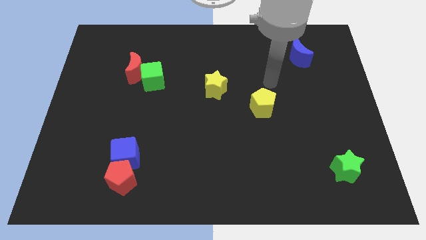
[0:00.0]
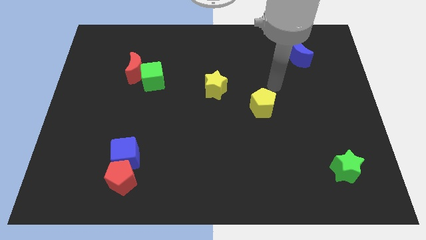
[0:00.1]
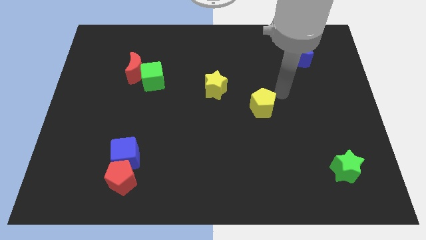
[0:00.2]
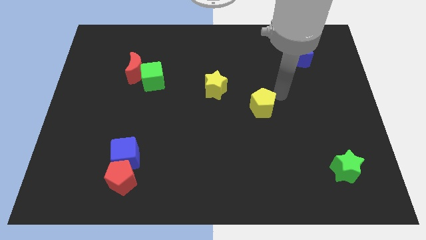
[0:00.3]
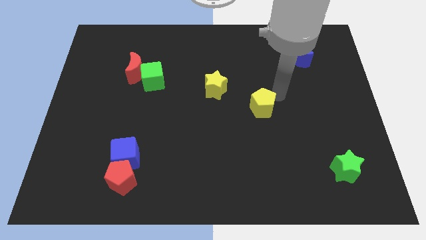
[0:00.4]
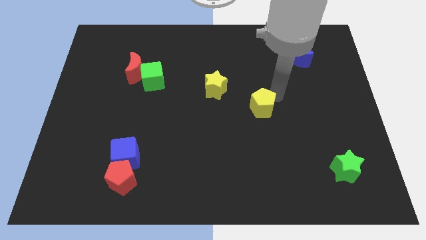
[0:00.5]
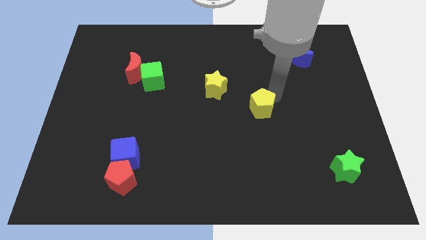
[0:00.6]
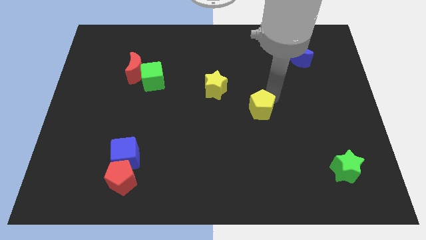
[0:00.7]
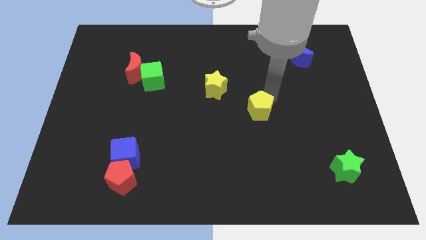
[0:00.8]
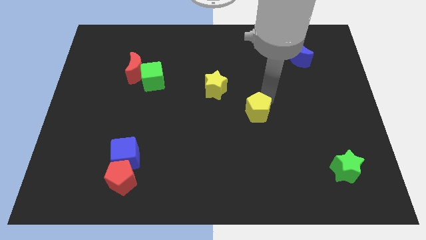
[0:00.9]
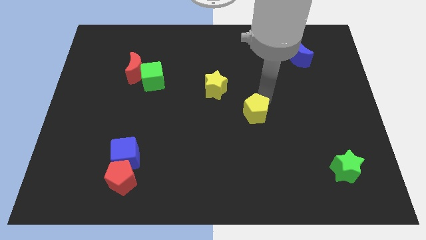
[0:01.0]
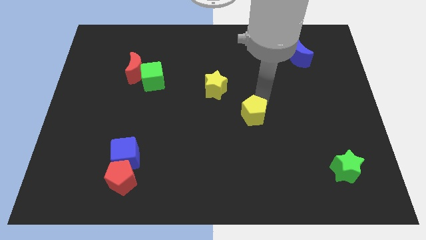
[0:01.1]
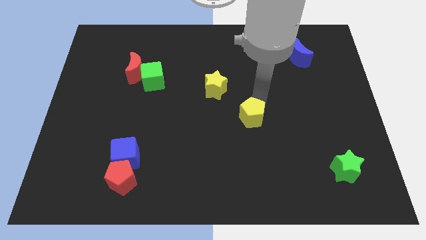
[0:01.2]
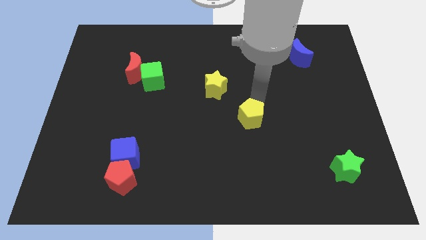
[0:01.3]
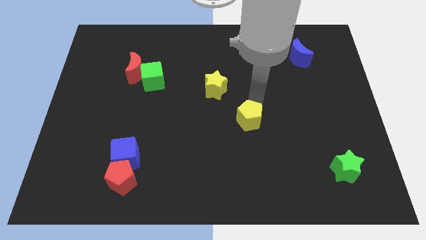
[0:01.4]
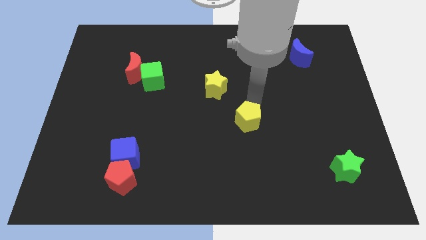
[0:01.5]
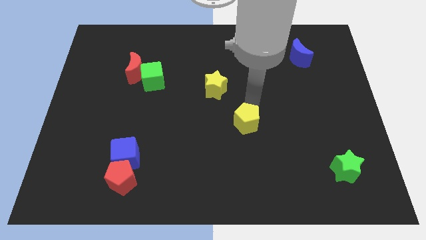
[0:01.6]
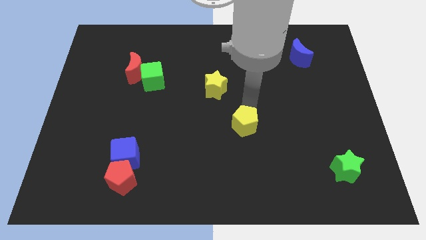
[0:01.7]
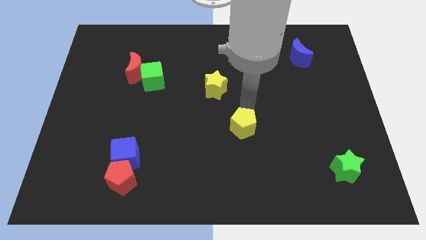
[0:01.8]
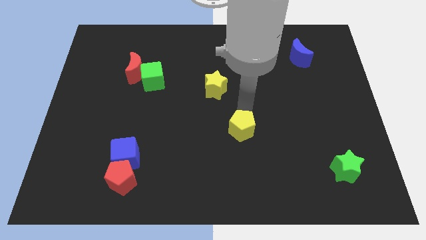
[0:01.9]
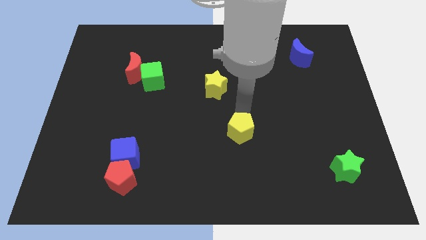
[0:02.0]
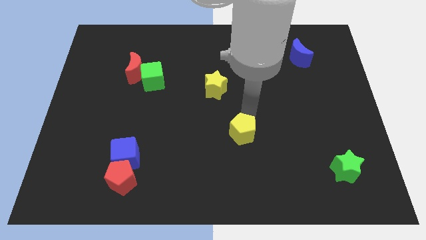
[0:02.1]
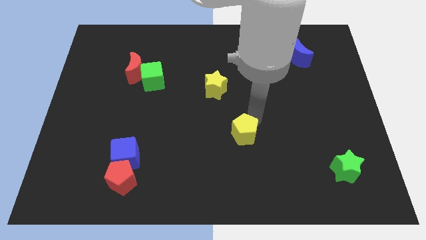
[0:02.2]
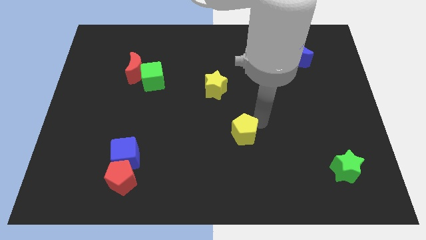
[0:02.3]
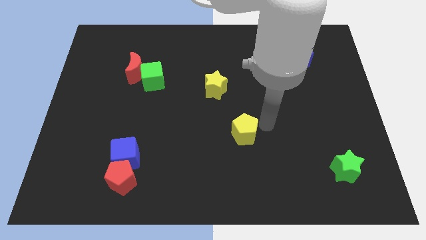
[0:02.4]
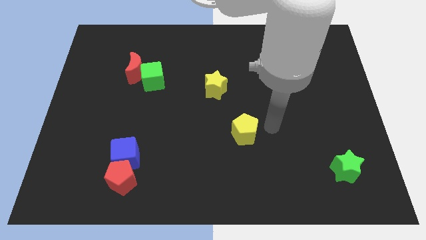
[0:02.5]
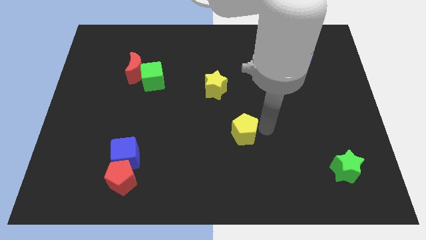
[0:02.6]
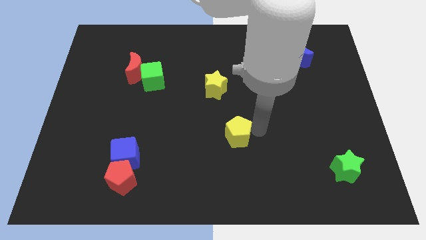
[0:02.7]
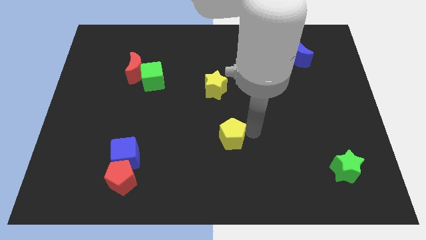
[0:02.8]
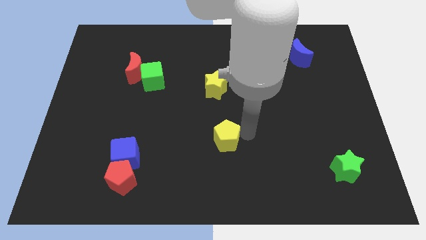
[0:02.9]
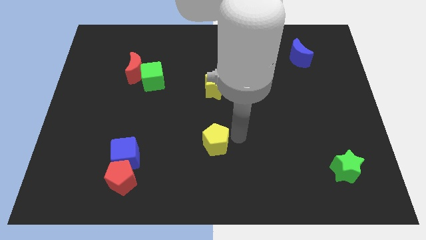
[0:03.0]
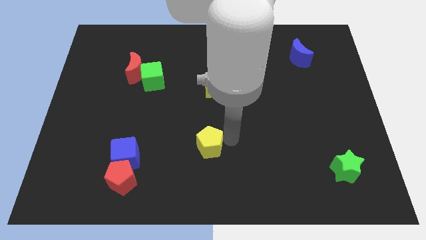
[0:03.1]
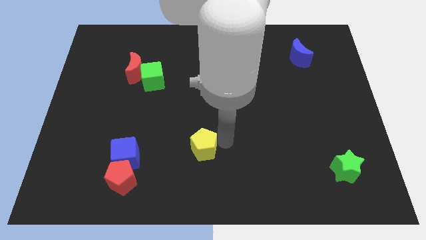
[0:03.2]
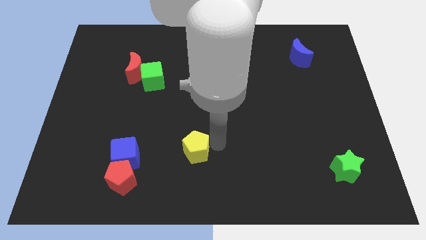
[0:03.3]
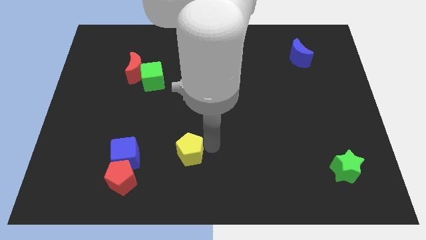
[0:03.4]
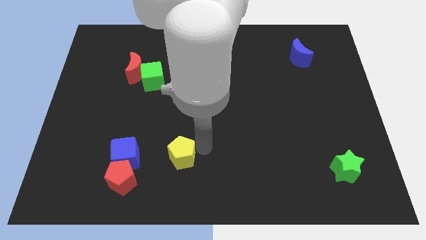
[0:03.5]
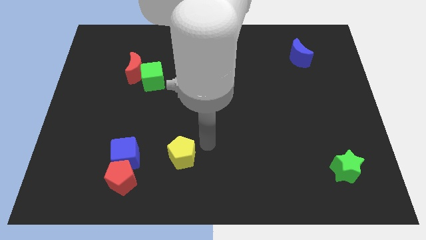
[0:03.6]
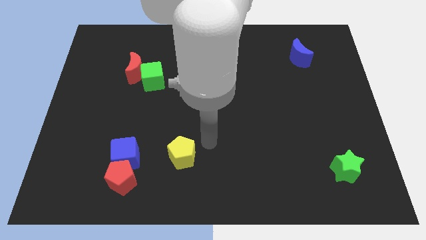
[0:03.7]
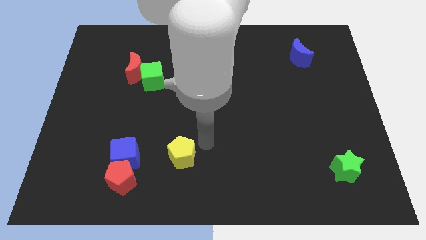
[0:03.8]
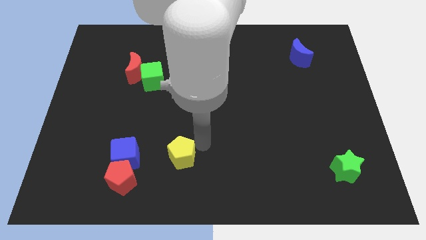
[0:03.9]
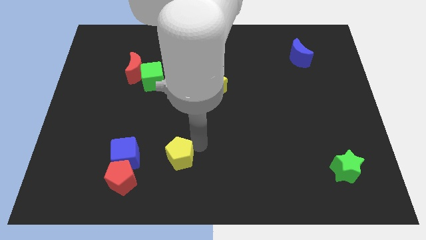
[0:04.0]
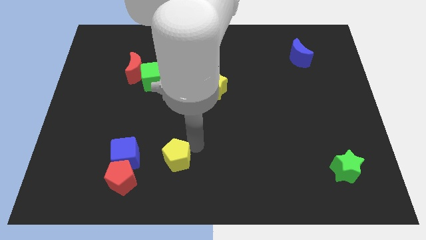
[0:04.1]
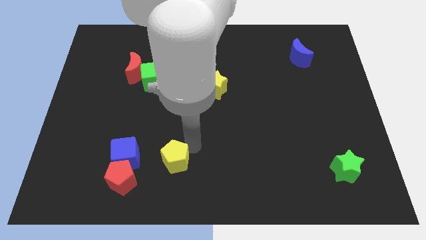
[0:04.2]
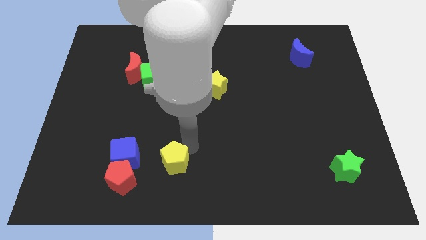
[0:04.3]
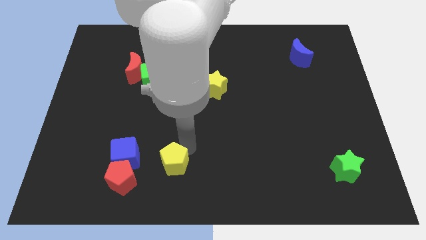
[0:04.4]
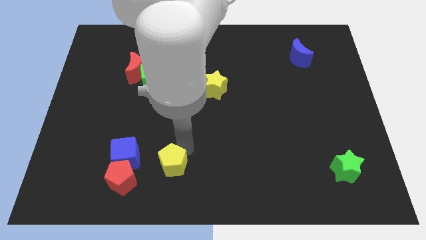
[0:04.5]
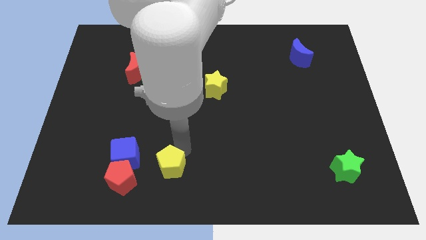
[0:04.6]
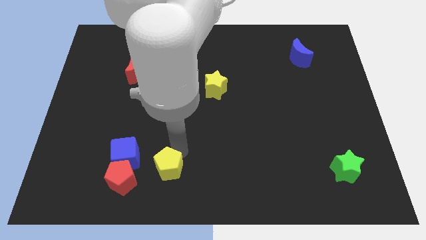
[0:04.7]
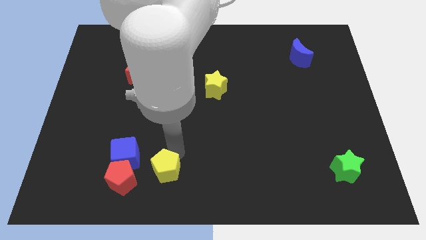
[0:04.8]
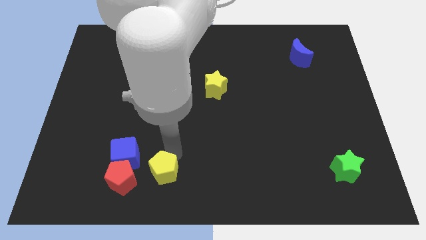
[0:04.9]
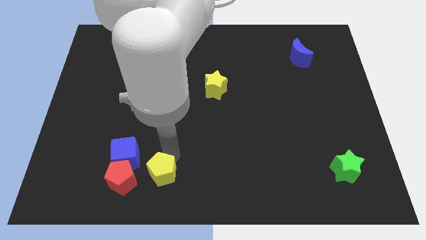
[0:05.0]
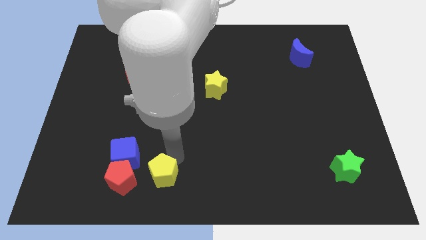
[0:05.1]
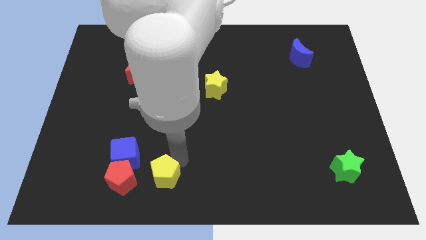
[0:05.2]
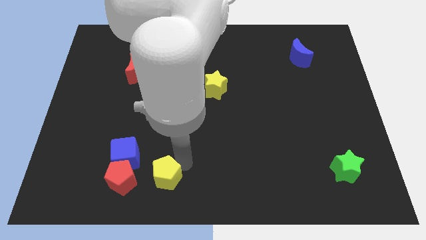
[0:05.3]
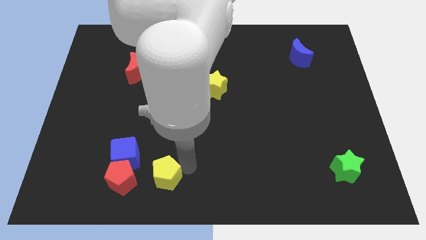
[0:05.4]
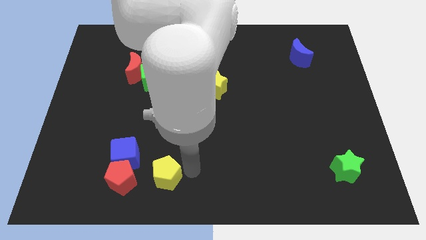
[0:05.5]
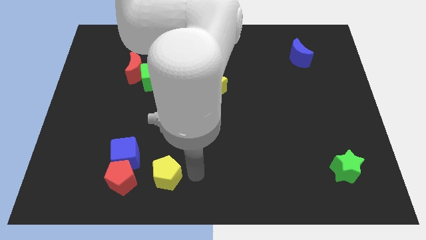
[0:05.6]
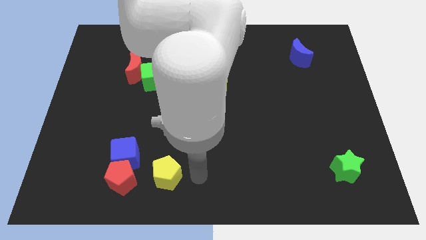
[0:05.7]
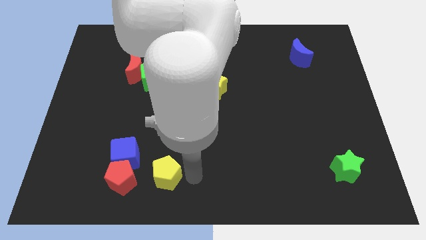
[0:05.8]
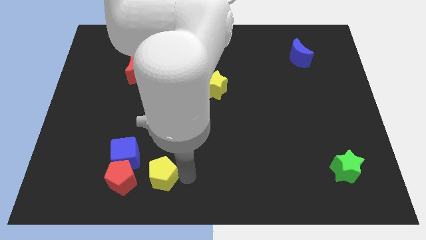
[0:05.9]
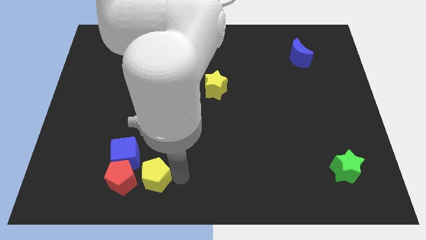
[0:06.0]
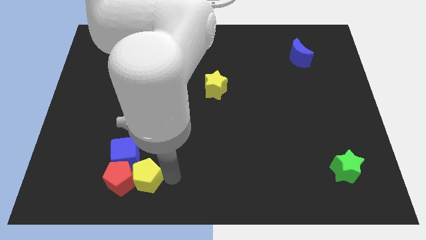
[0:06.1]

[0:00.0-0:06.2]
push the yellow pentagon next to the red pentagon

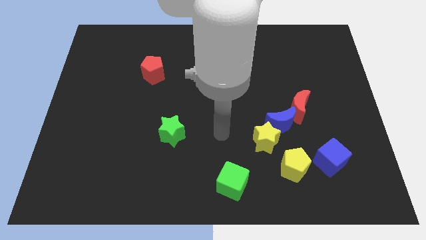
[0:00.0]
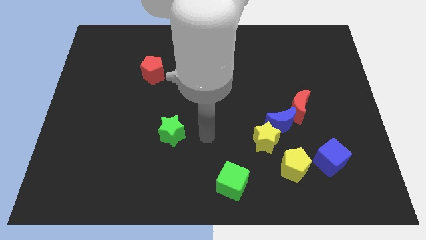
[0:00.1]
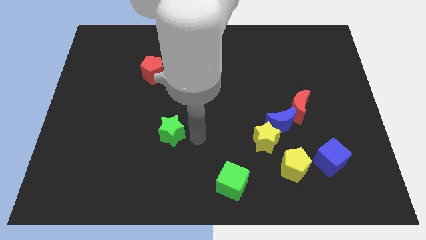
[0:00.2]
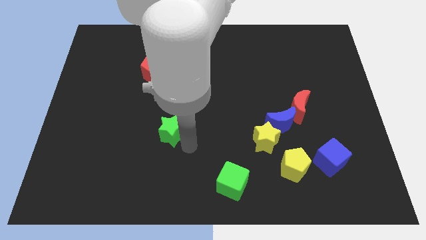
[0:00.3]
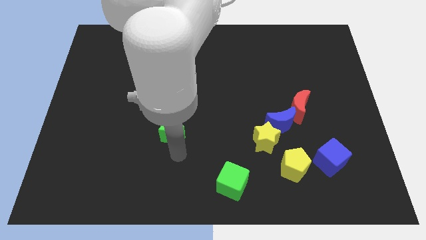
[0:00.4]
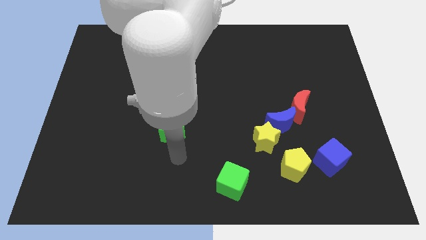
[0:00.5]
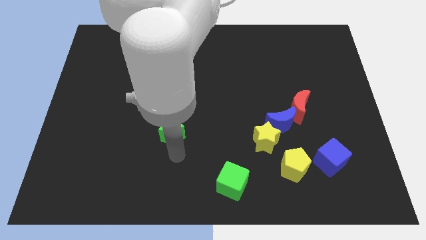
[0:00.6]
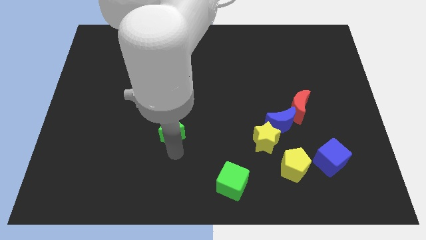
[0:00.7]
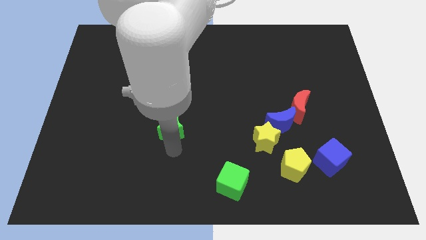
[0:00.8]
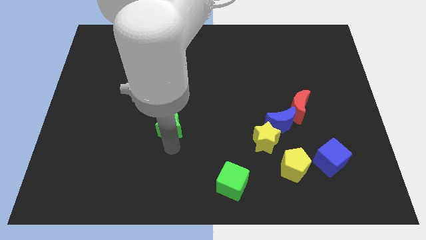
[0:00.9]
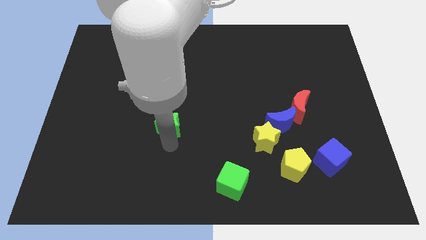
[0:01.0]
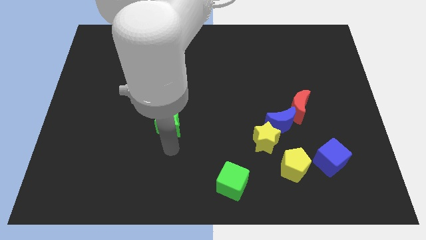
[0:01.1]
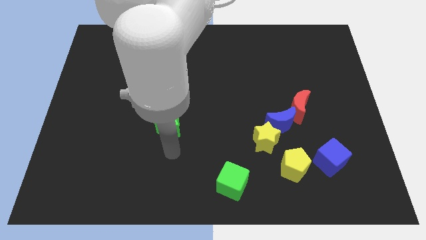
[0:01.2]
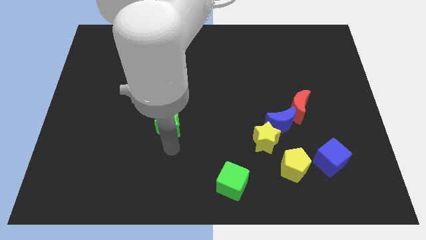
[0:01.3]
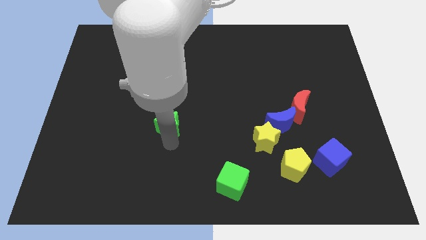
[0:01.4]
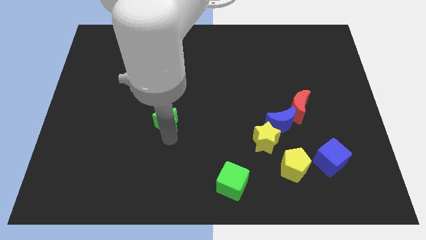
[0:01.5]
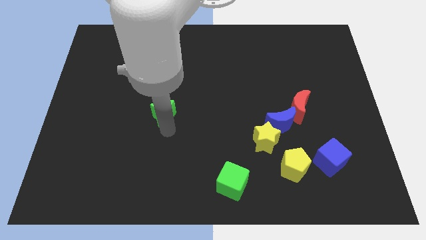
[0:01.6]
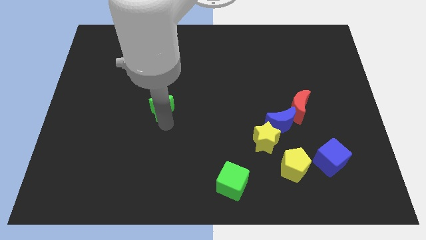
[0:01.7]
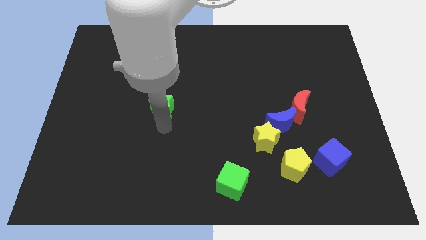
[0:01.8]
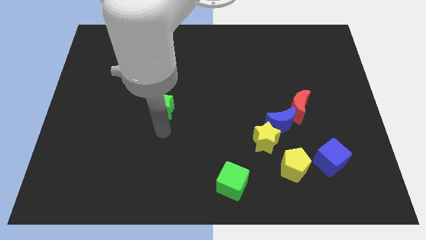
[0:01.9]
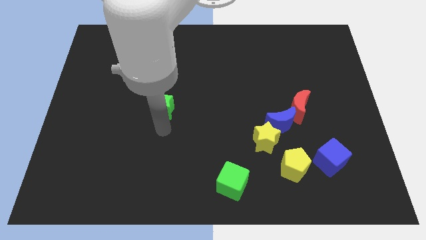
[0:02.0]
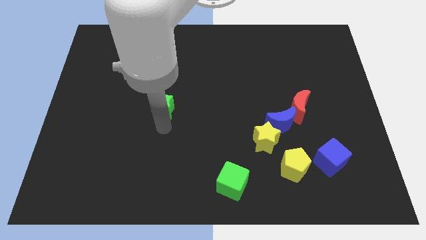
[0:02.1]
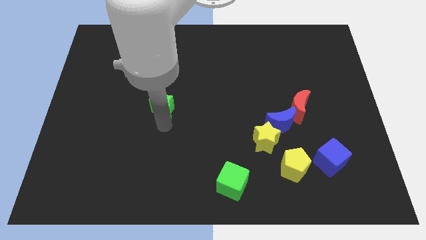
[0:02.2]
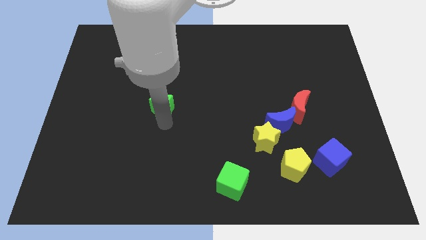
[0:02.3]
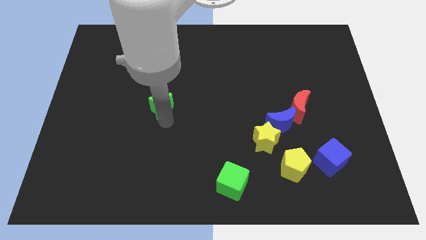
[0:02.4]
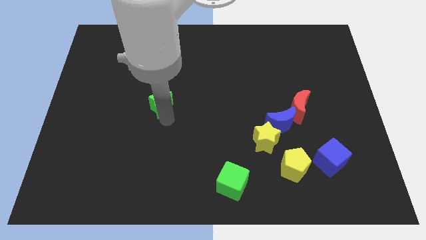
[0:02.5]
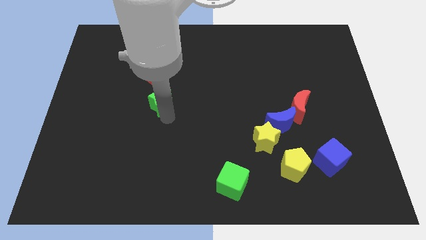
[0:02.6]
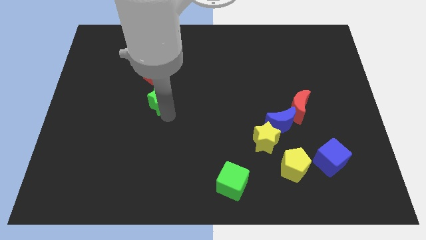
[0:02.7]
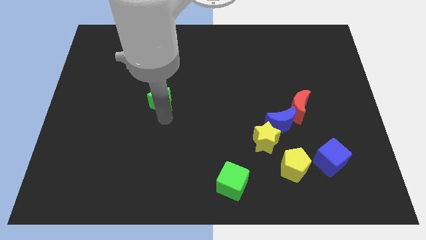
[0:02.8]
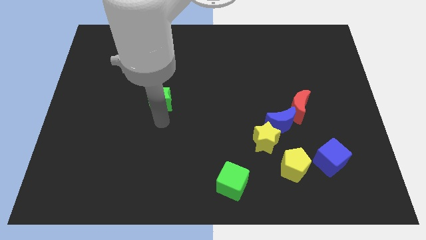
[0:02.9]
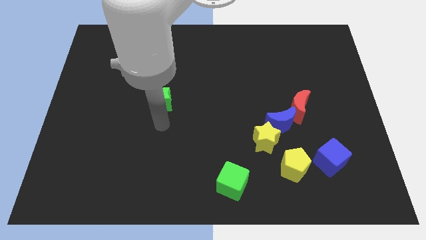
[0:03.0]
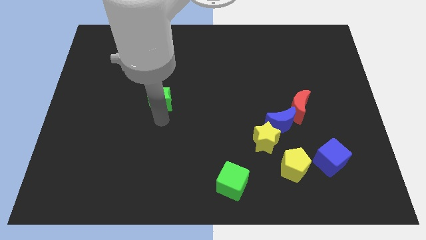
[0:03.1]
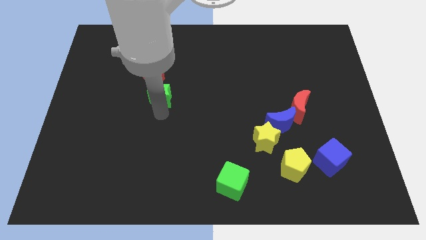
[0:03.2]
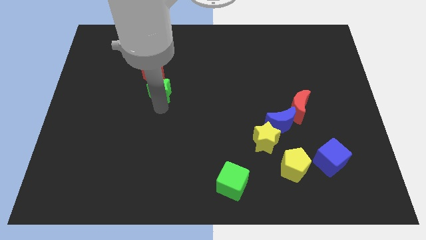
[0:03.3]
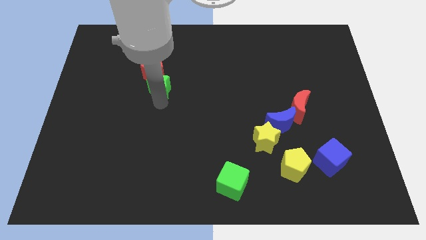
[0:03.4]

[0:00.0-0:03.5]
move the green star close to the red pentagon
